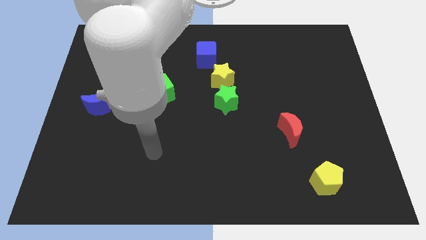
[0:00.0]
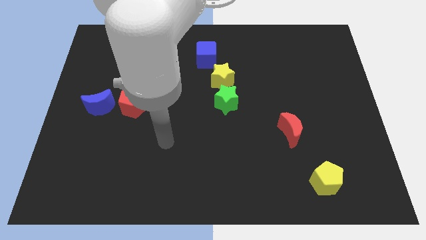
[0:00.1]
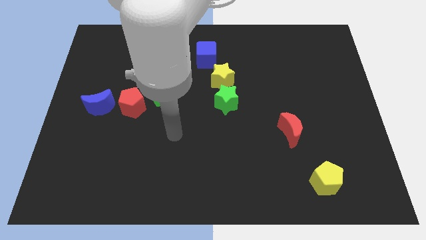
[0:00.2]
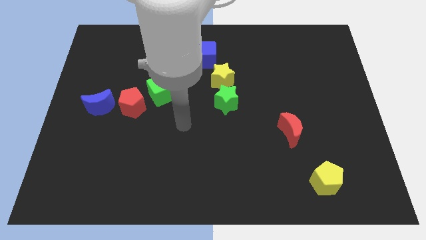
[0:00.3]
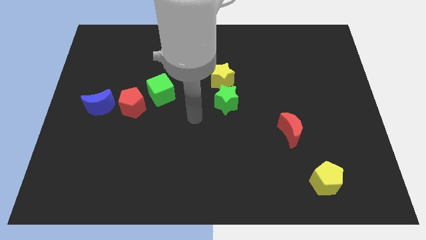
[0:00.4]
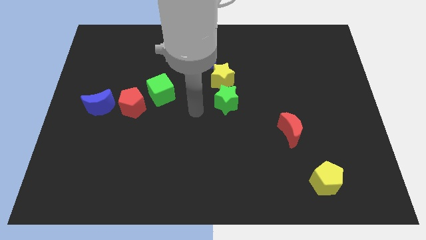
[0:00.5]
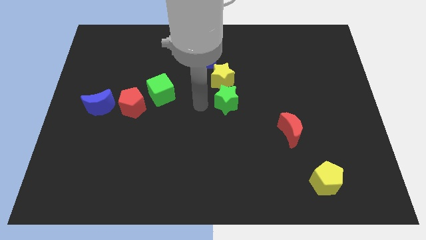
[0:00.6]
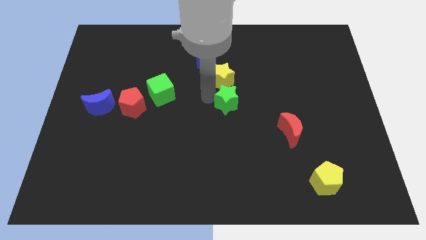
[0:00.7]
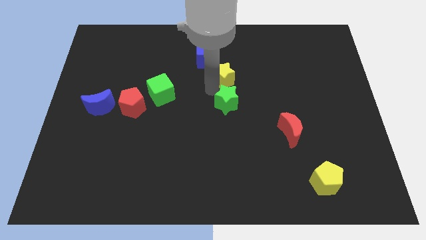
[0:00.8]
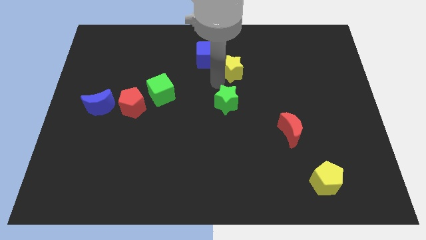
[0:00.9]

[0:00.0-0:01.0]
move the green star away from the yellow star

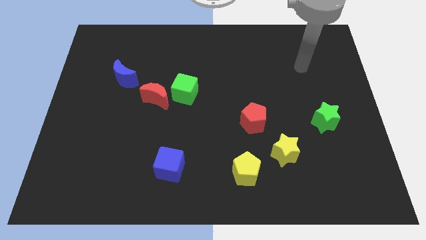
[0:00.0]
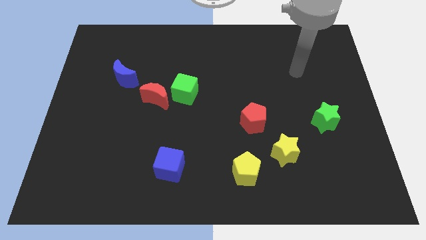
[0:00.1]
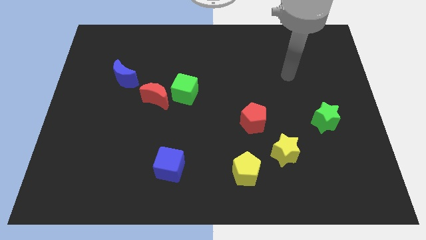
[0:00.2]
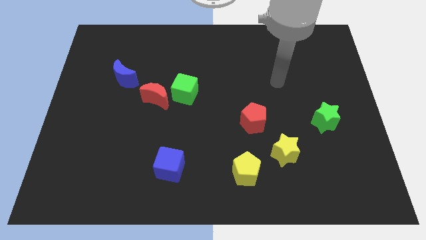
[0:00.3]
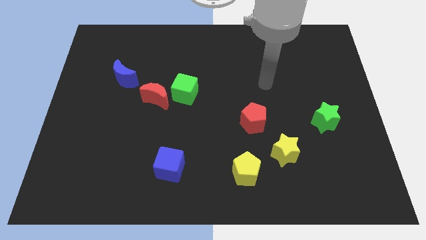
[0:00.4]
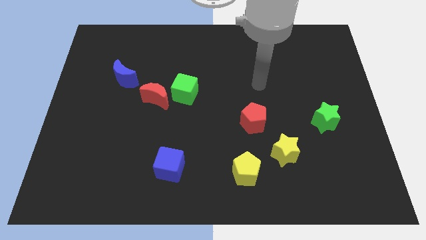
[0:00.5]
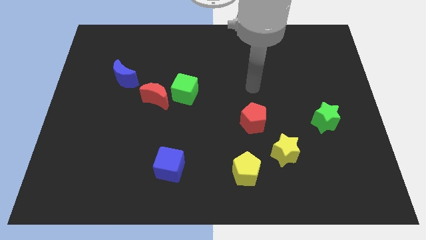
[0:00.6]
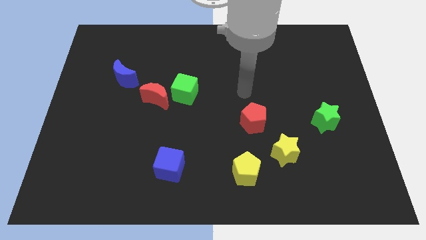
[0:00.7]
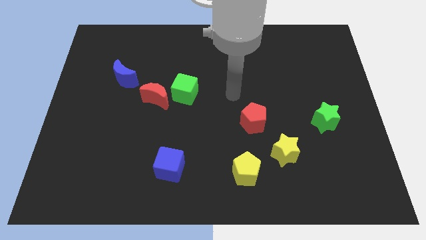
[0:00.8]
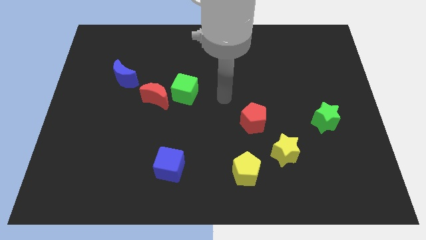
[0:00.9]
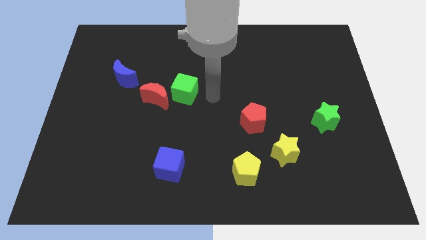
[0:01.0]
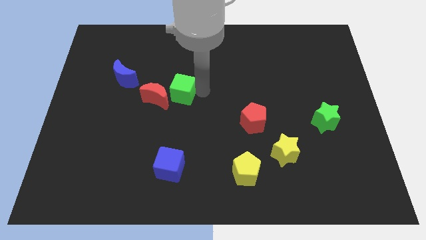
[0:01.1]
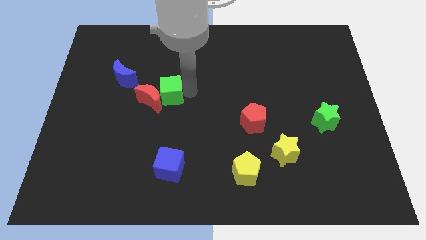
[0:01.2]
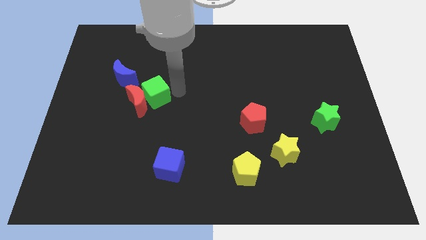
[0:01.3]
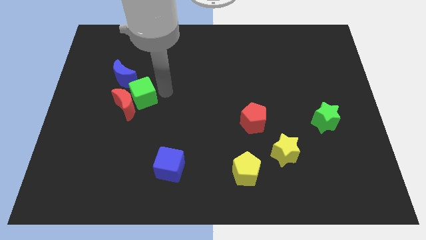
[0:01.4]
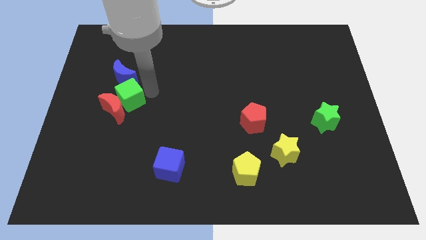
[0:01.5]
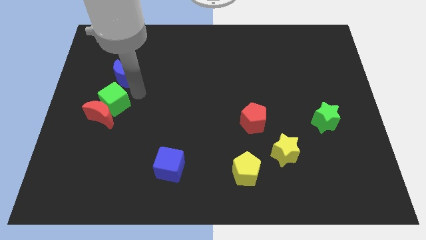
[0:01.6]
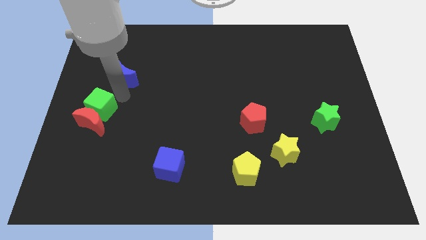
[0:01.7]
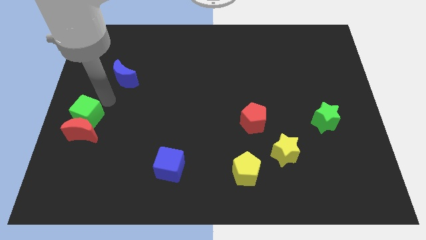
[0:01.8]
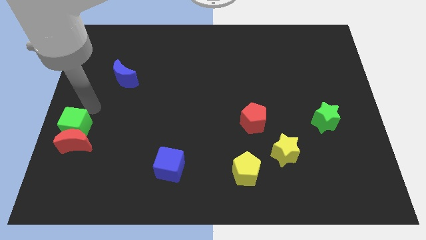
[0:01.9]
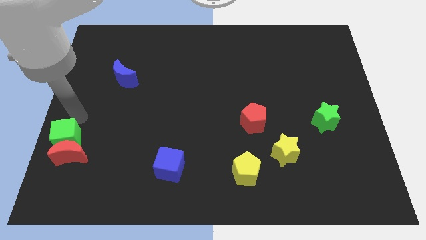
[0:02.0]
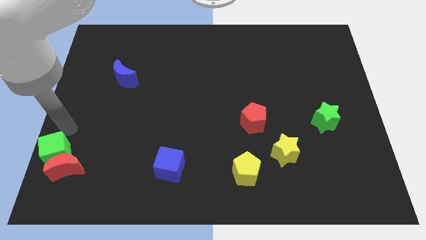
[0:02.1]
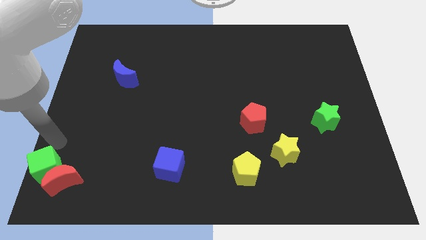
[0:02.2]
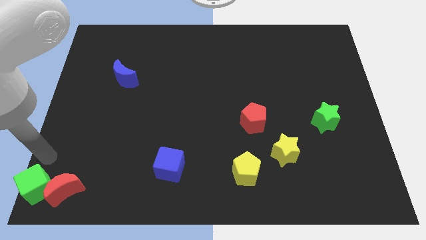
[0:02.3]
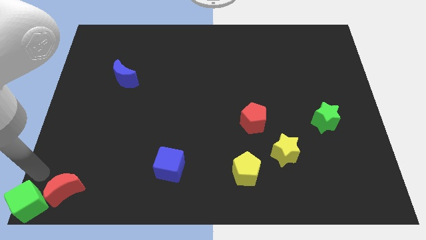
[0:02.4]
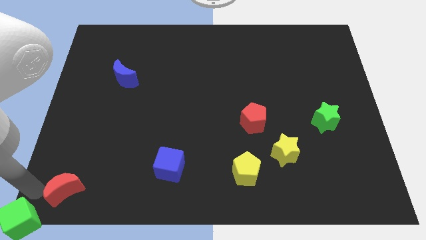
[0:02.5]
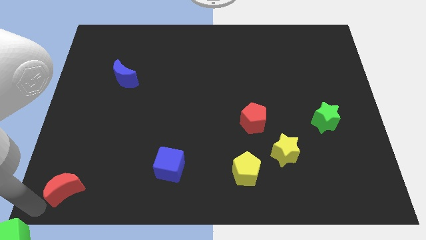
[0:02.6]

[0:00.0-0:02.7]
separate the red moon from the green cube

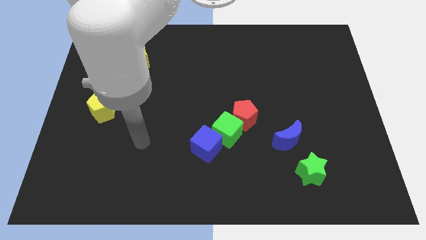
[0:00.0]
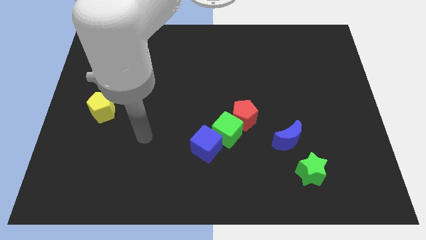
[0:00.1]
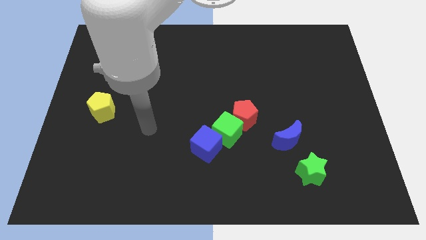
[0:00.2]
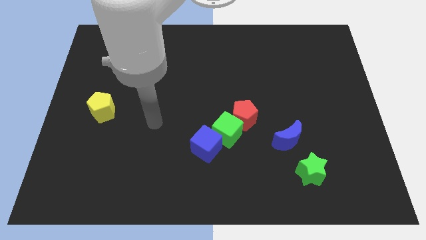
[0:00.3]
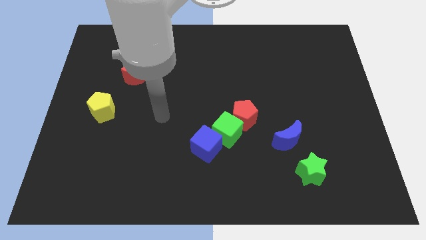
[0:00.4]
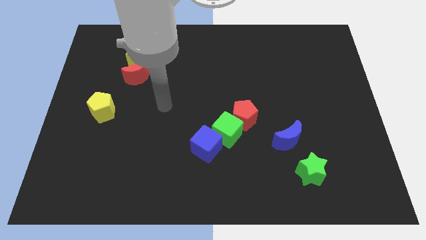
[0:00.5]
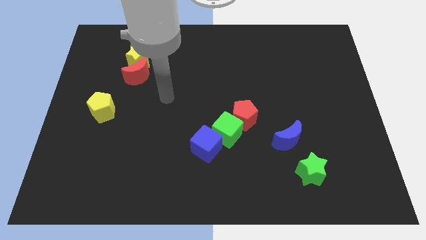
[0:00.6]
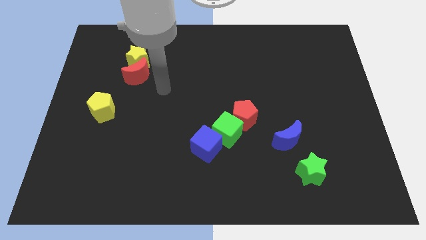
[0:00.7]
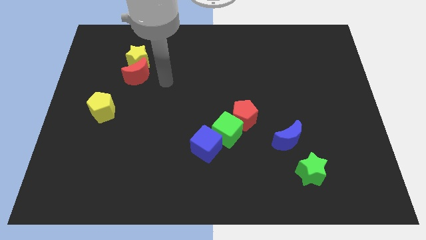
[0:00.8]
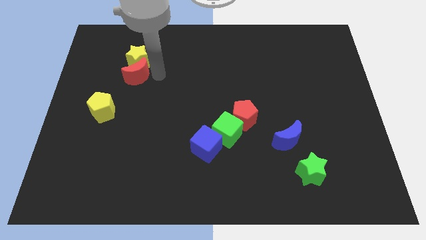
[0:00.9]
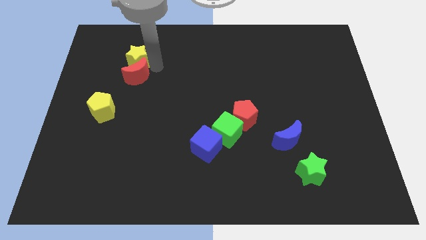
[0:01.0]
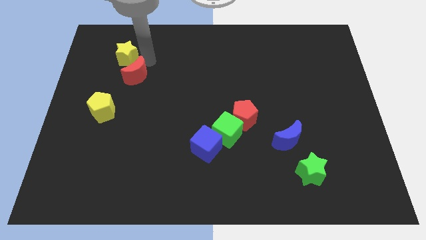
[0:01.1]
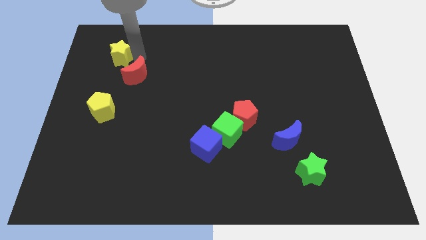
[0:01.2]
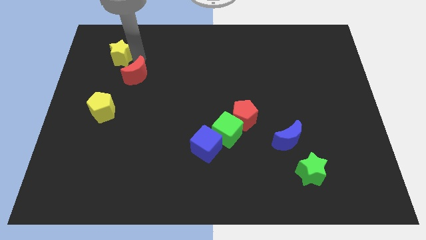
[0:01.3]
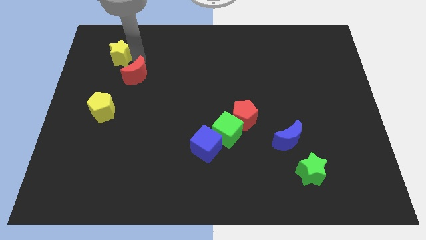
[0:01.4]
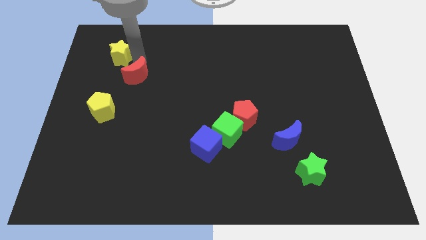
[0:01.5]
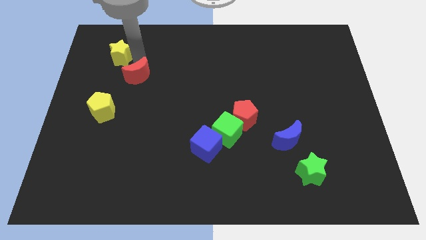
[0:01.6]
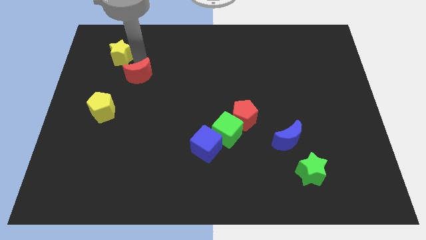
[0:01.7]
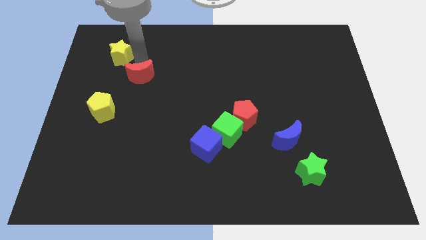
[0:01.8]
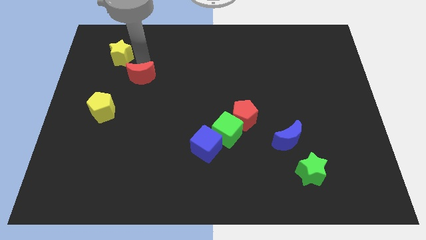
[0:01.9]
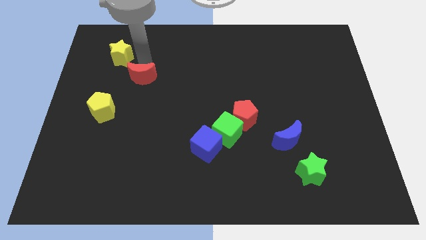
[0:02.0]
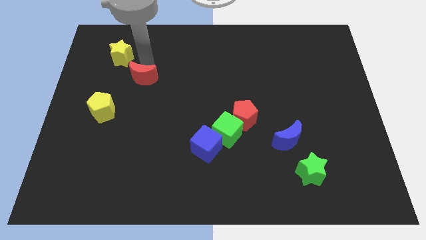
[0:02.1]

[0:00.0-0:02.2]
separate the red moon from the yellow star

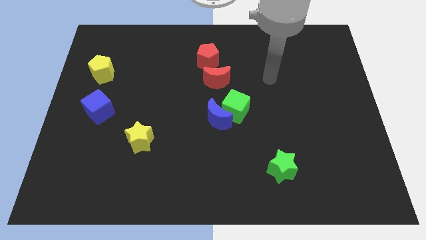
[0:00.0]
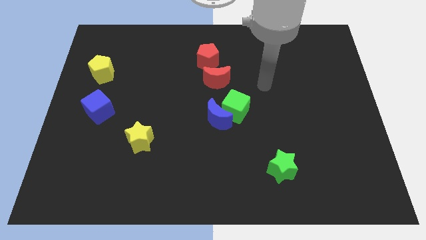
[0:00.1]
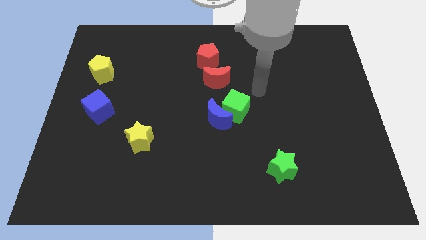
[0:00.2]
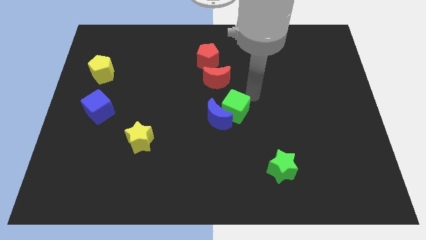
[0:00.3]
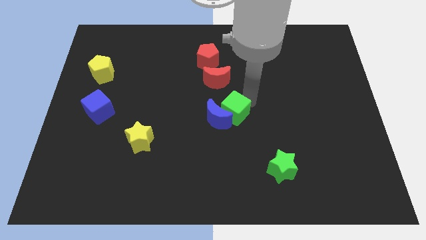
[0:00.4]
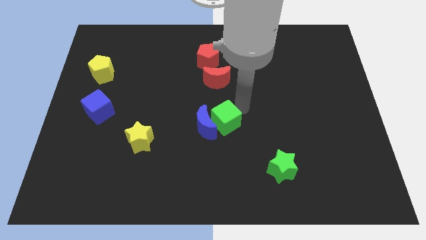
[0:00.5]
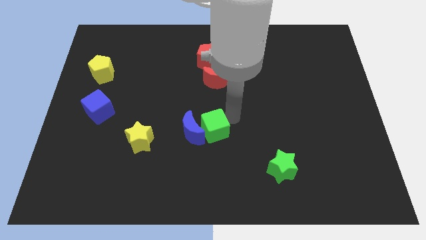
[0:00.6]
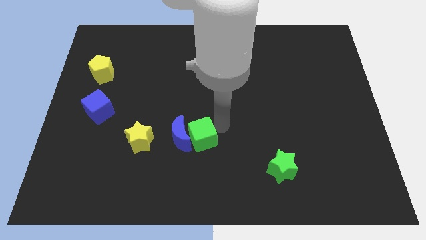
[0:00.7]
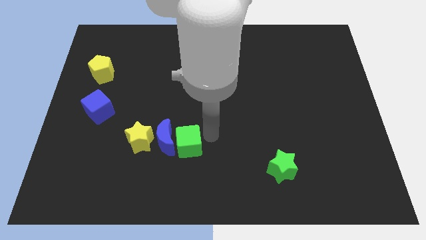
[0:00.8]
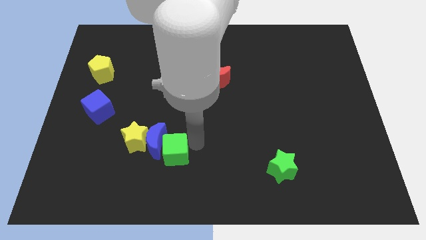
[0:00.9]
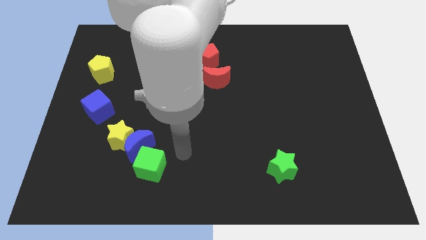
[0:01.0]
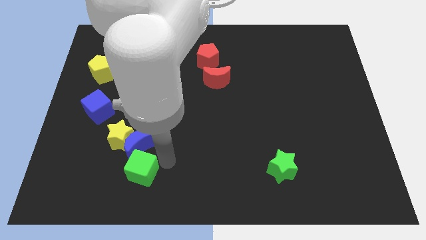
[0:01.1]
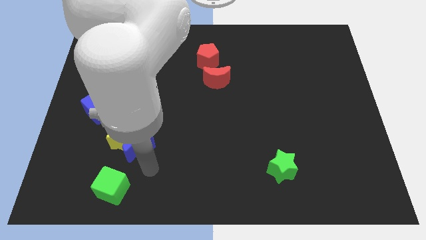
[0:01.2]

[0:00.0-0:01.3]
separate the blue moon from the green cube

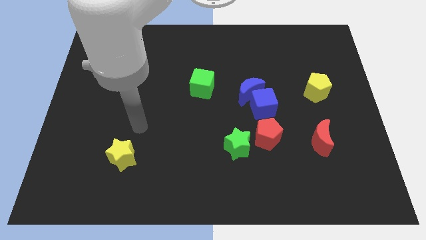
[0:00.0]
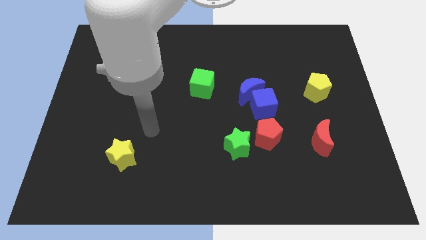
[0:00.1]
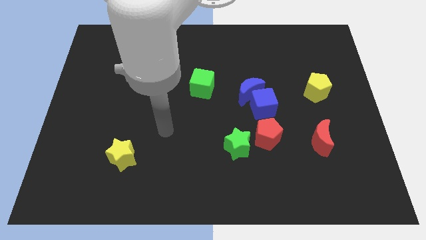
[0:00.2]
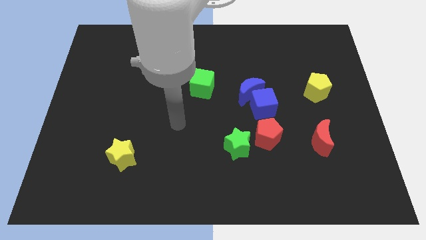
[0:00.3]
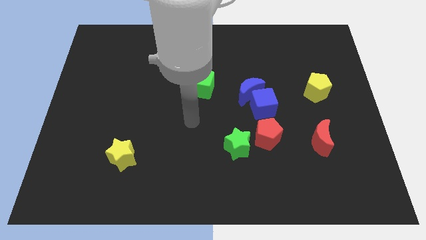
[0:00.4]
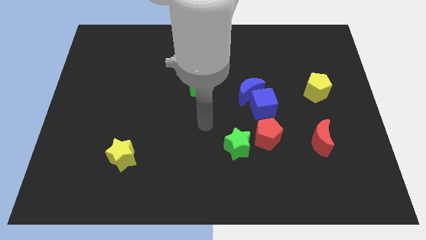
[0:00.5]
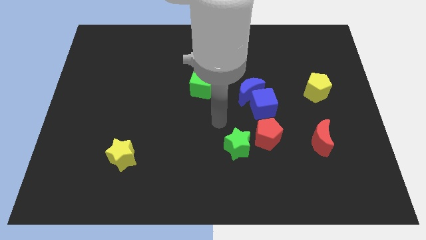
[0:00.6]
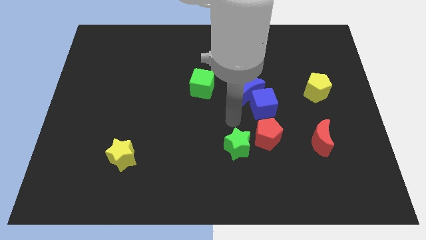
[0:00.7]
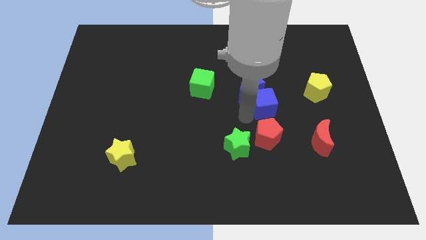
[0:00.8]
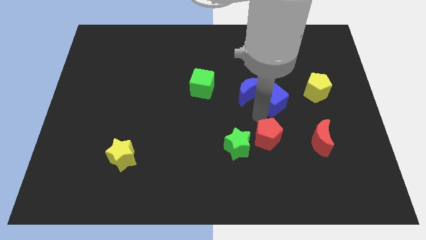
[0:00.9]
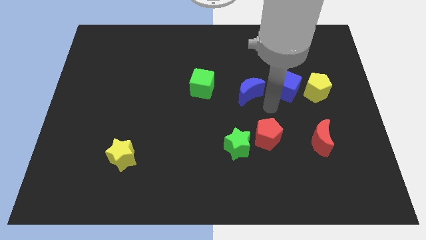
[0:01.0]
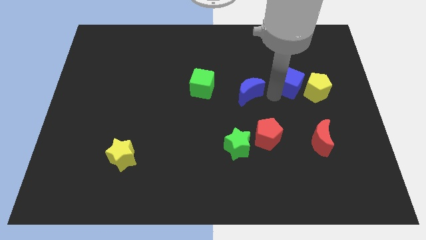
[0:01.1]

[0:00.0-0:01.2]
move the blue moon away from the blue cube

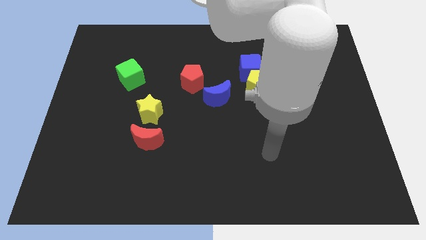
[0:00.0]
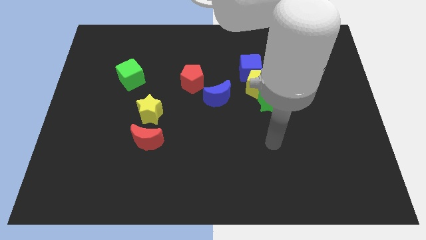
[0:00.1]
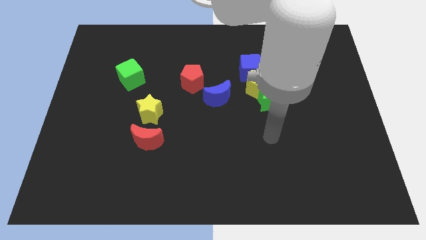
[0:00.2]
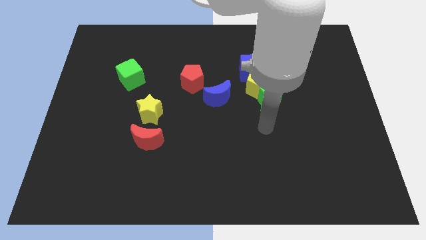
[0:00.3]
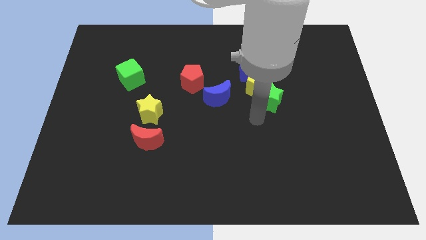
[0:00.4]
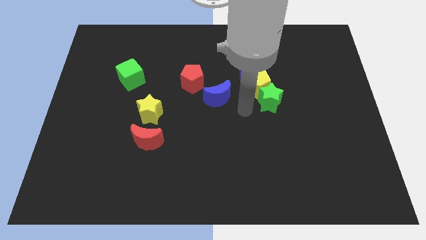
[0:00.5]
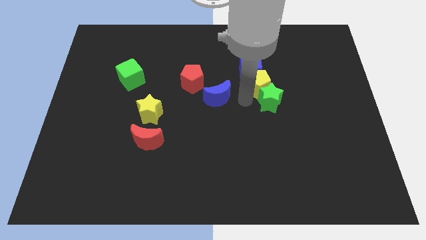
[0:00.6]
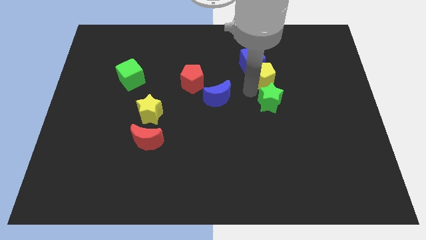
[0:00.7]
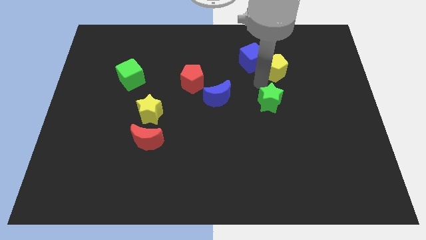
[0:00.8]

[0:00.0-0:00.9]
separate the green star from the yellow pentagon
